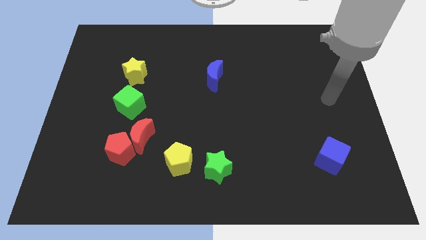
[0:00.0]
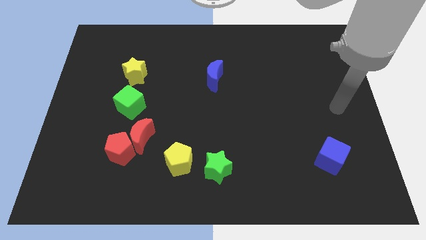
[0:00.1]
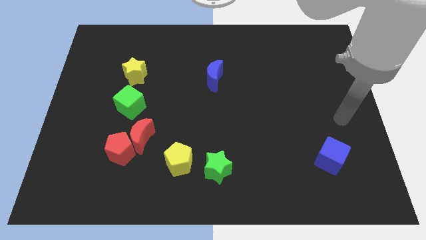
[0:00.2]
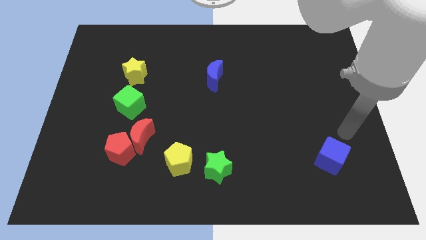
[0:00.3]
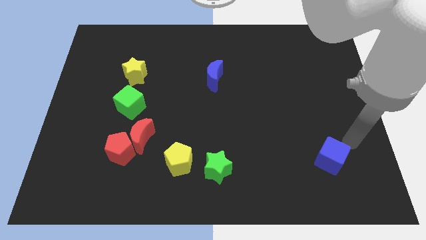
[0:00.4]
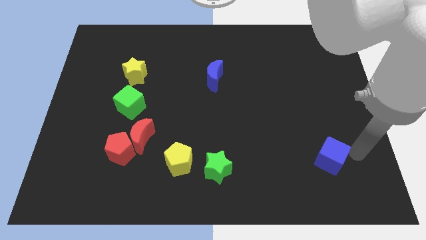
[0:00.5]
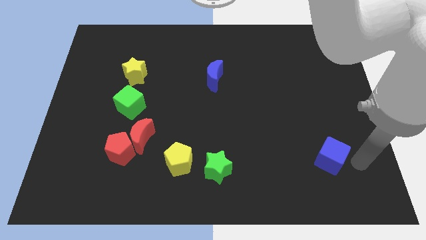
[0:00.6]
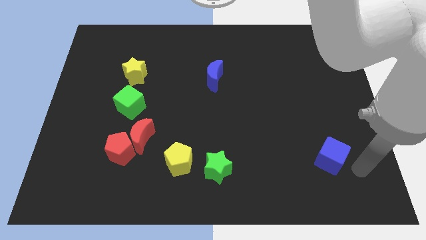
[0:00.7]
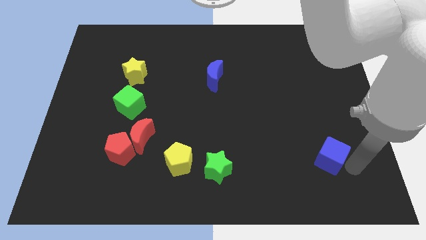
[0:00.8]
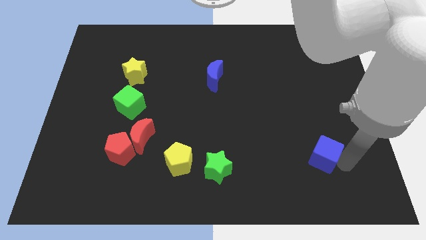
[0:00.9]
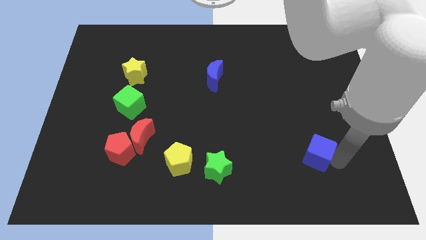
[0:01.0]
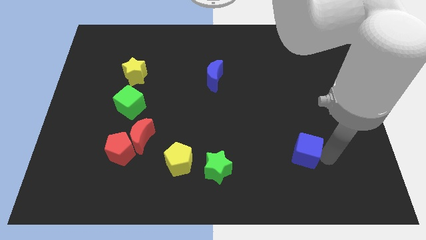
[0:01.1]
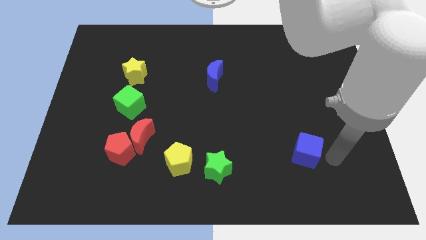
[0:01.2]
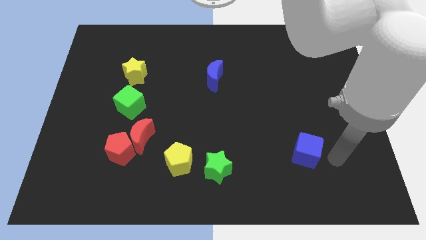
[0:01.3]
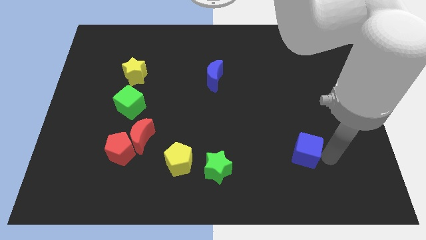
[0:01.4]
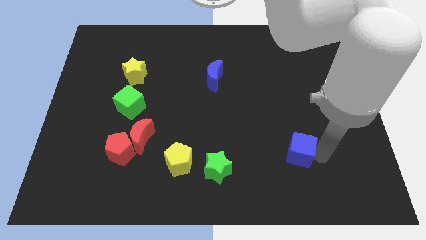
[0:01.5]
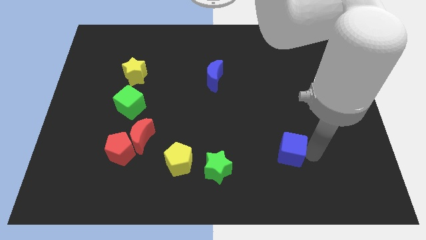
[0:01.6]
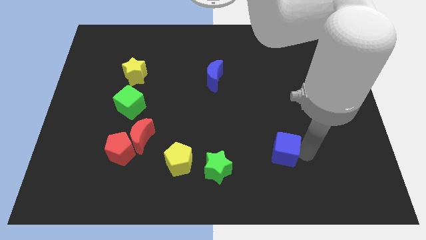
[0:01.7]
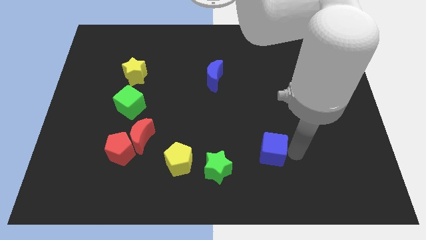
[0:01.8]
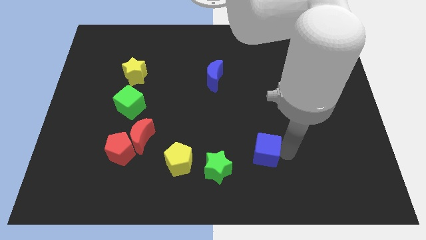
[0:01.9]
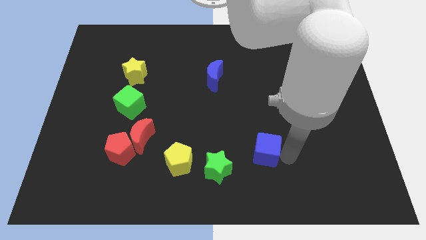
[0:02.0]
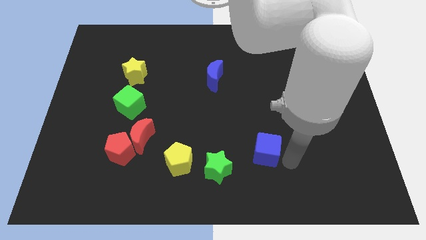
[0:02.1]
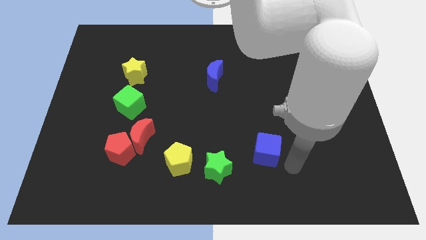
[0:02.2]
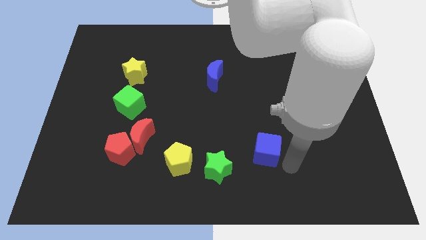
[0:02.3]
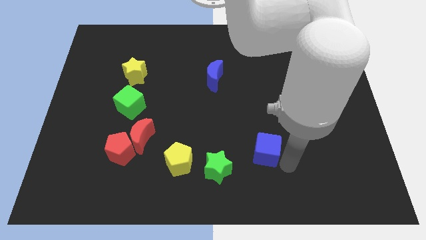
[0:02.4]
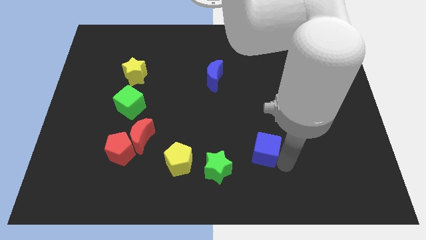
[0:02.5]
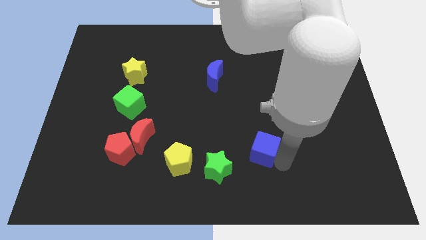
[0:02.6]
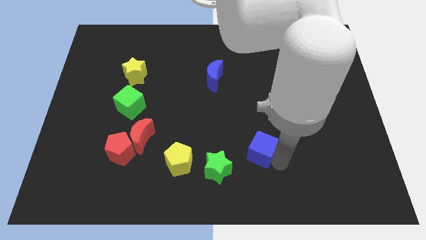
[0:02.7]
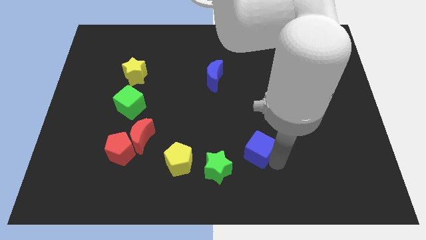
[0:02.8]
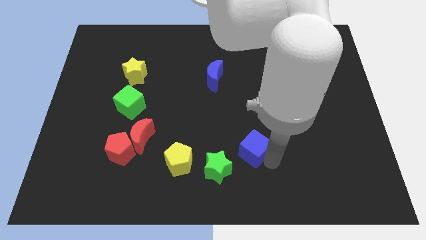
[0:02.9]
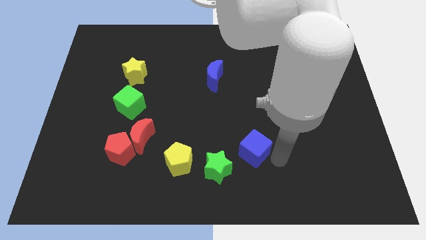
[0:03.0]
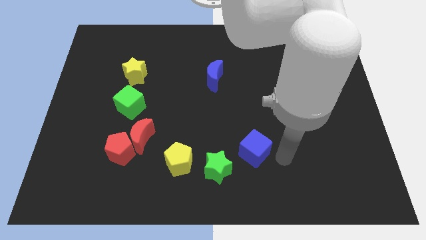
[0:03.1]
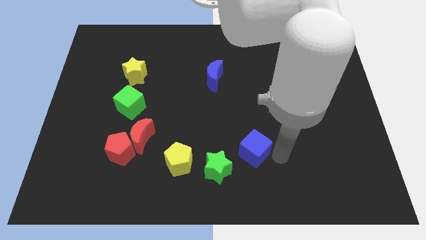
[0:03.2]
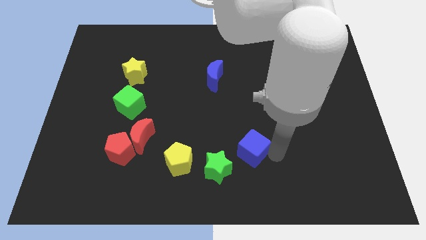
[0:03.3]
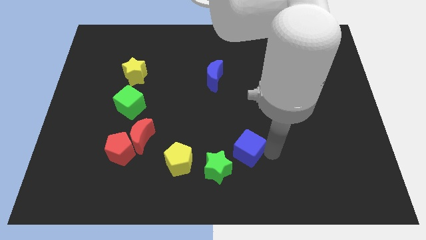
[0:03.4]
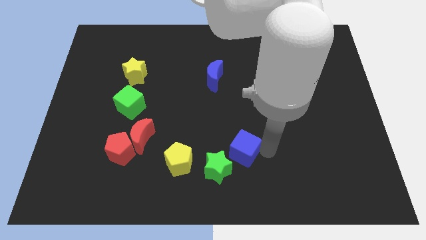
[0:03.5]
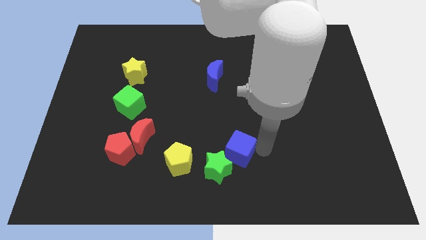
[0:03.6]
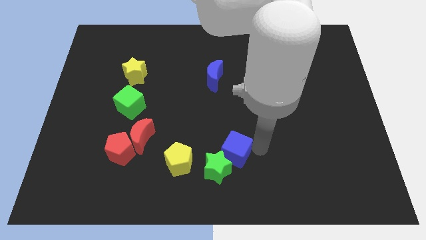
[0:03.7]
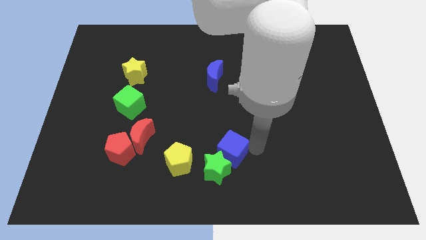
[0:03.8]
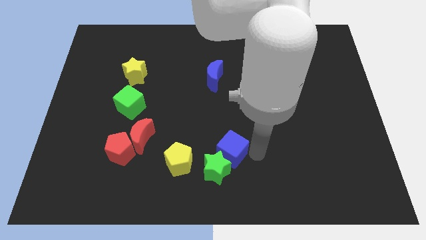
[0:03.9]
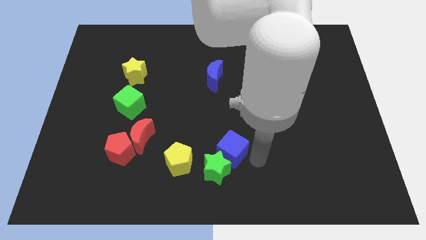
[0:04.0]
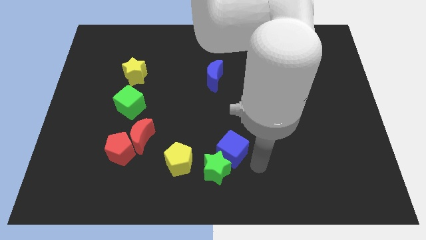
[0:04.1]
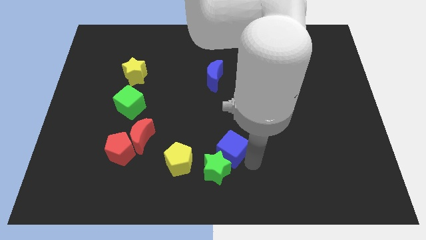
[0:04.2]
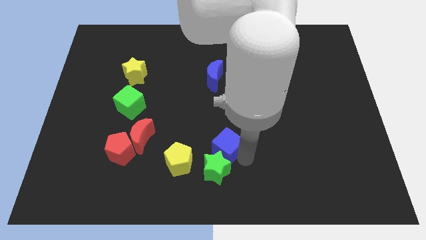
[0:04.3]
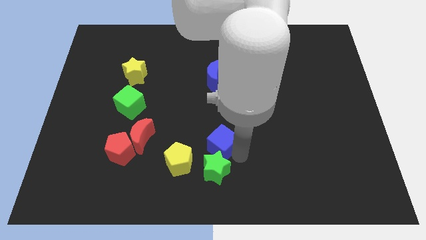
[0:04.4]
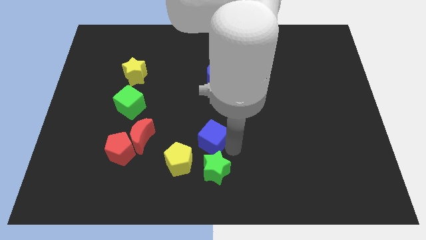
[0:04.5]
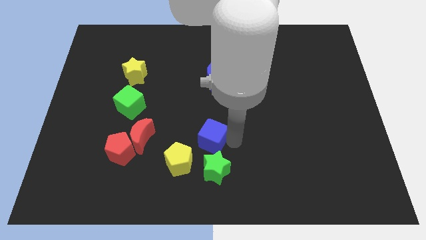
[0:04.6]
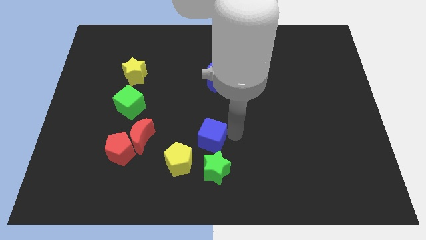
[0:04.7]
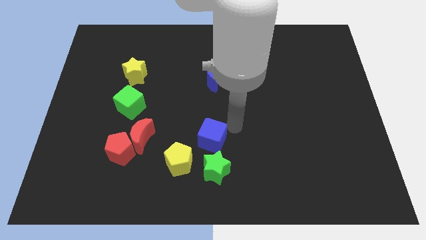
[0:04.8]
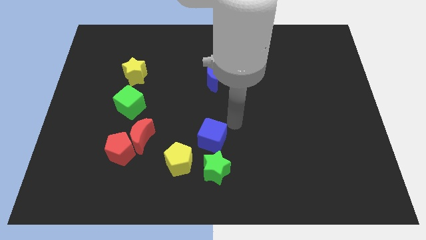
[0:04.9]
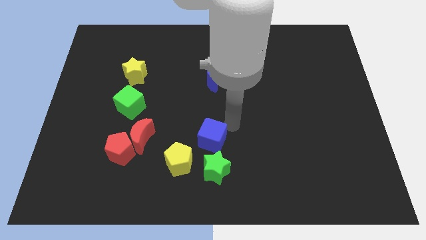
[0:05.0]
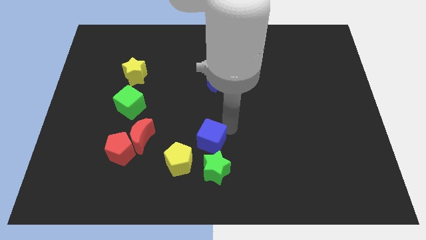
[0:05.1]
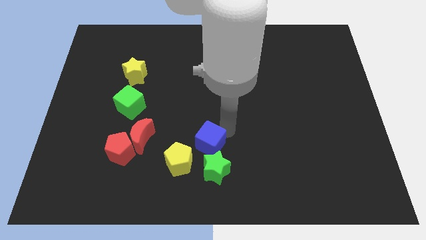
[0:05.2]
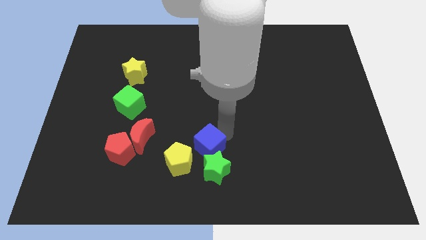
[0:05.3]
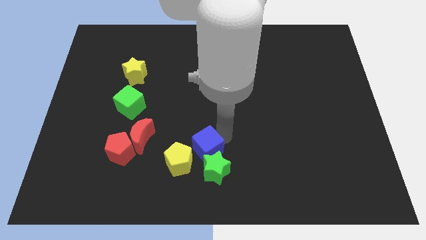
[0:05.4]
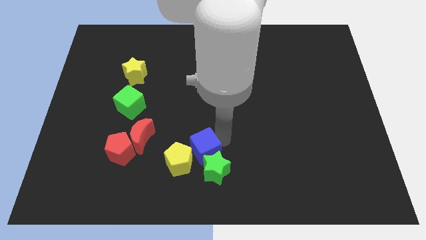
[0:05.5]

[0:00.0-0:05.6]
move the blue cube to the yellow pentagon

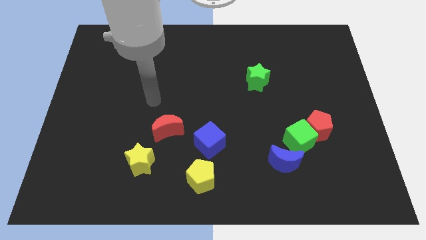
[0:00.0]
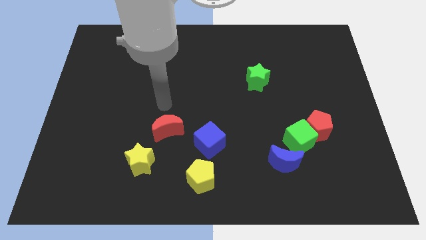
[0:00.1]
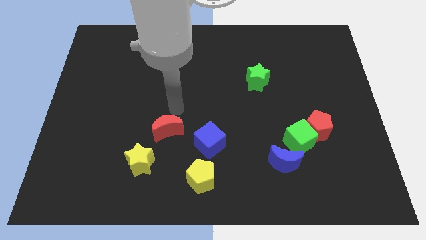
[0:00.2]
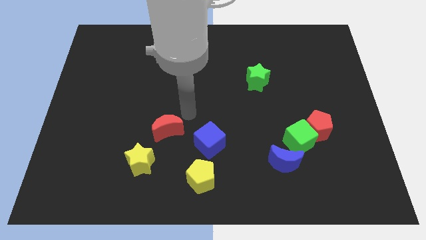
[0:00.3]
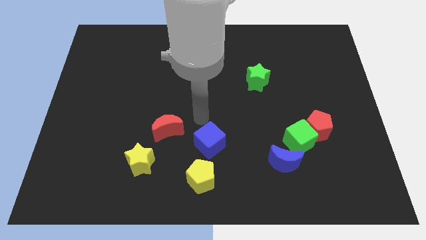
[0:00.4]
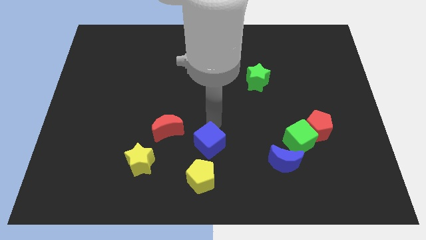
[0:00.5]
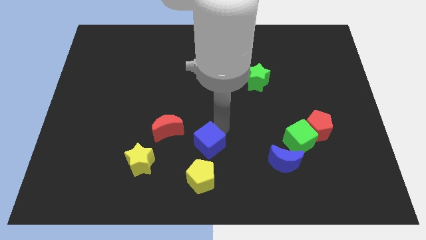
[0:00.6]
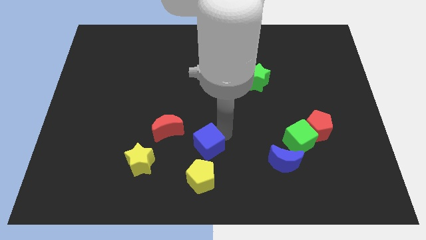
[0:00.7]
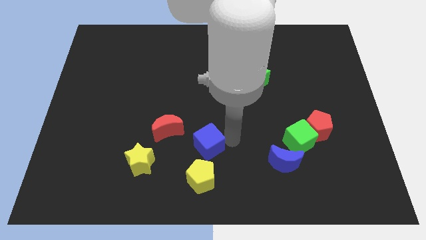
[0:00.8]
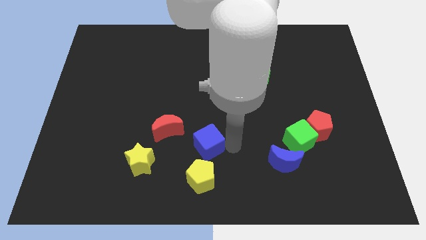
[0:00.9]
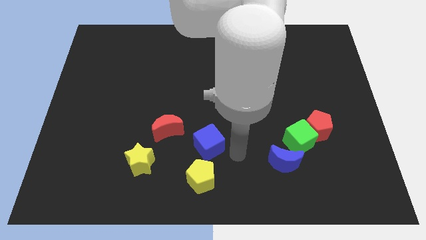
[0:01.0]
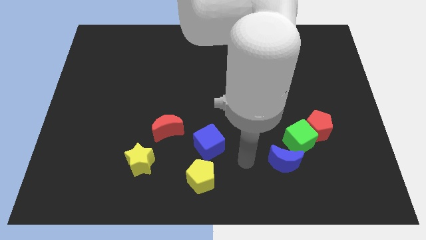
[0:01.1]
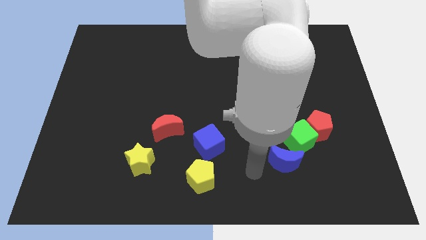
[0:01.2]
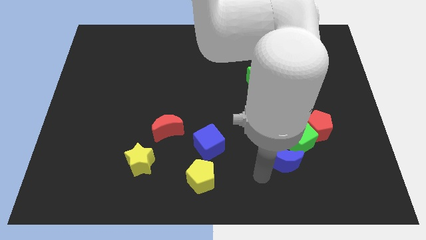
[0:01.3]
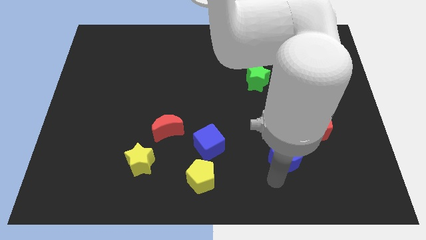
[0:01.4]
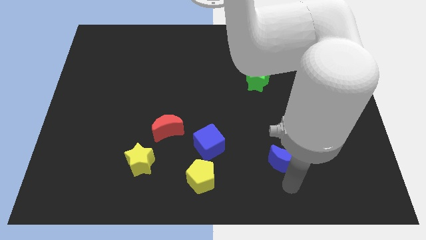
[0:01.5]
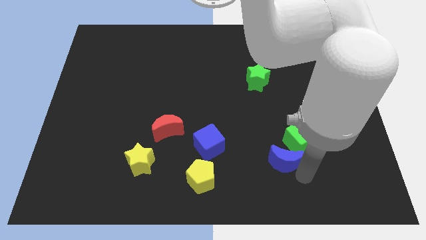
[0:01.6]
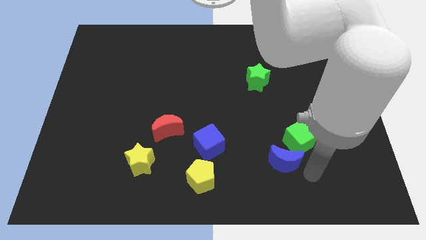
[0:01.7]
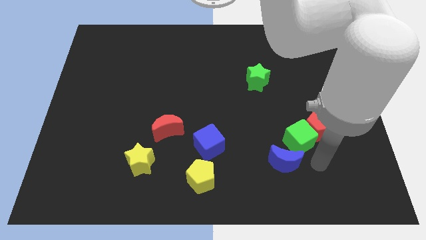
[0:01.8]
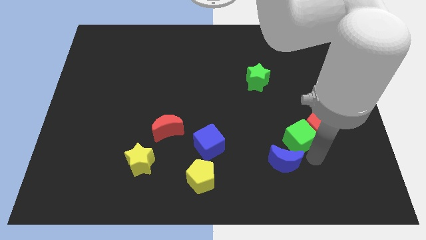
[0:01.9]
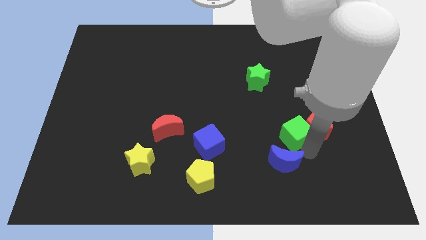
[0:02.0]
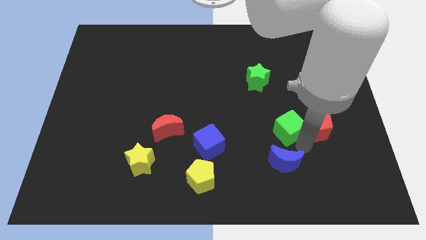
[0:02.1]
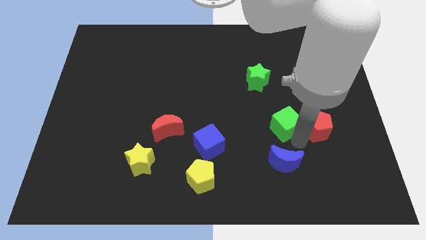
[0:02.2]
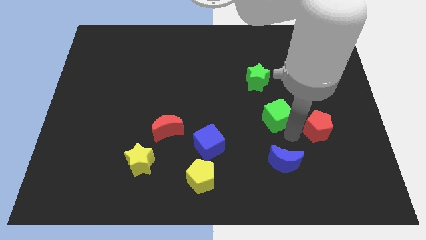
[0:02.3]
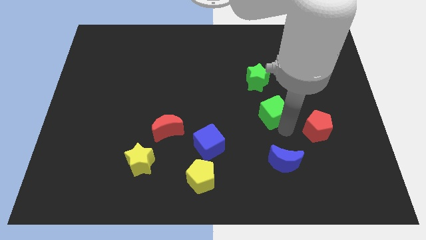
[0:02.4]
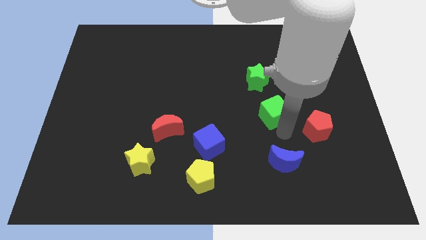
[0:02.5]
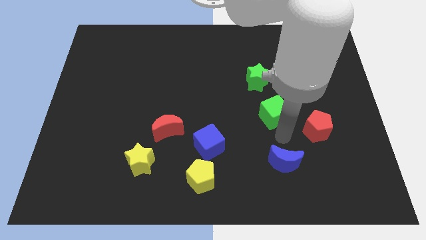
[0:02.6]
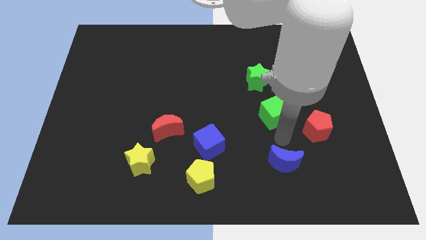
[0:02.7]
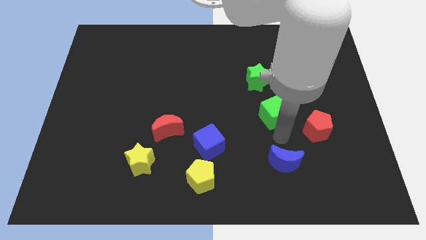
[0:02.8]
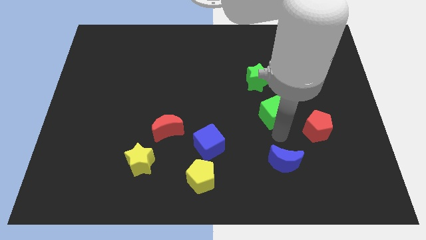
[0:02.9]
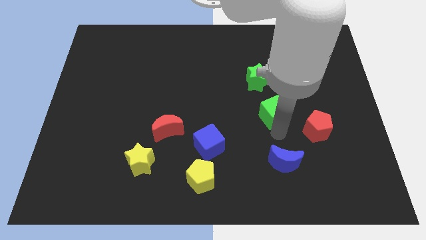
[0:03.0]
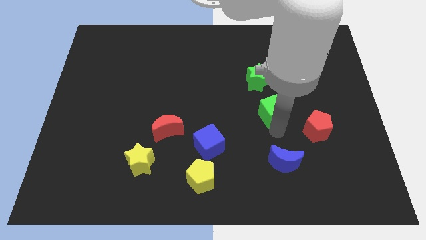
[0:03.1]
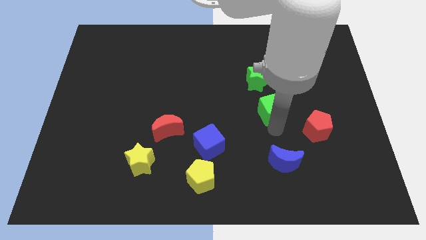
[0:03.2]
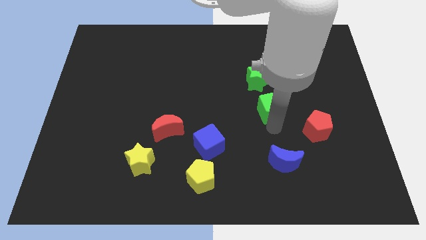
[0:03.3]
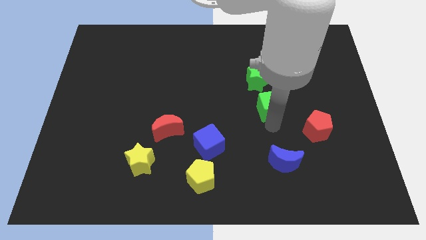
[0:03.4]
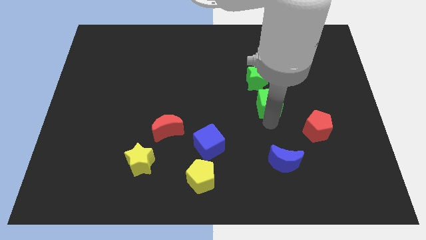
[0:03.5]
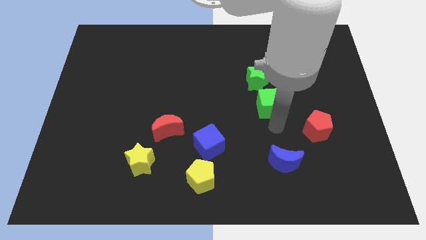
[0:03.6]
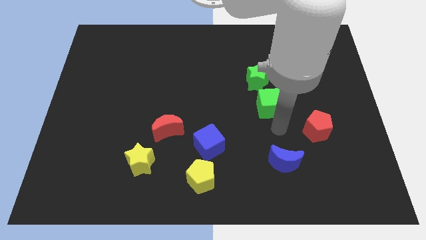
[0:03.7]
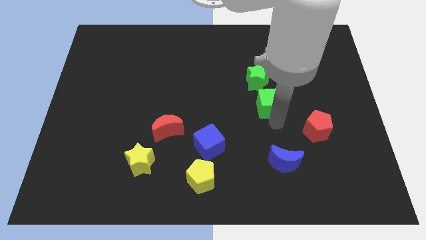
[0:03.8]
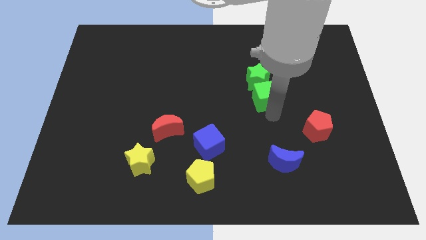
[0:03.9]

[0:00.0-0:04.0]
push the green cube close to the green star
